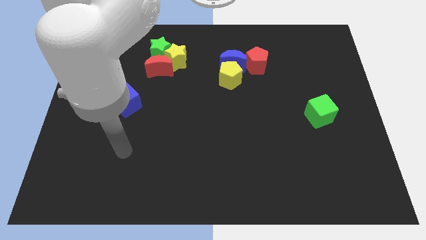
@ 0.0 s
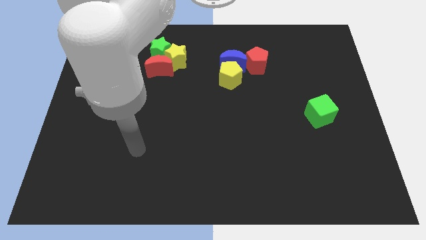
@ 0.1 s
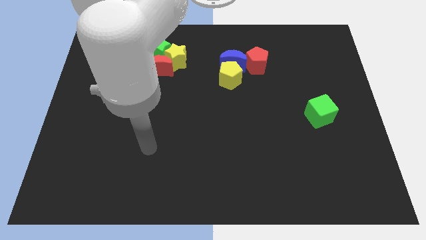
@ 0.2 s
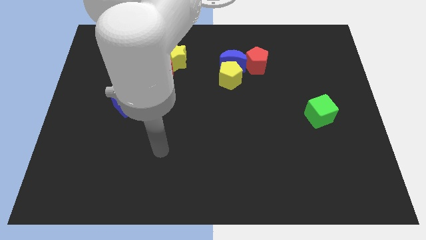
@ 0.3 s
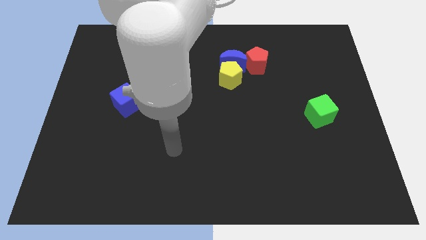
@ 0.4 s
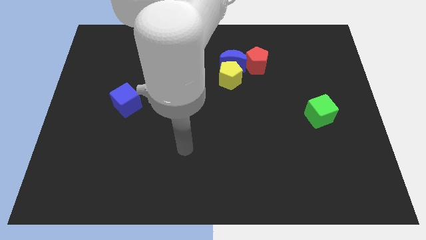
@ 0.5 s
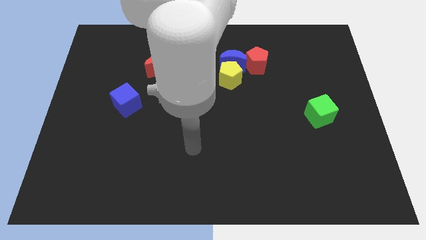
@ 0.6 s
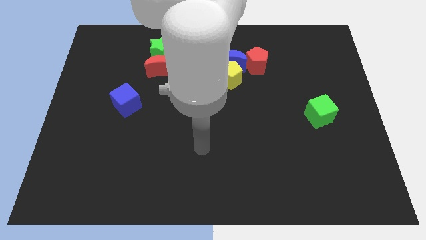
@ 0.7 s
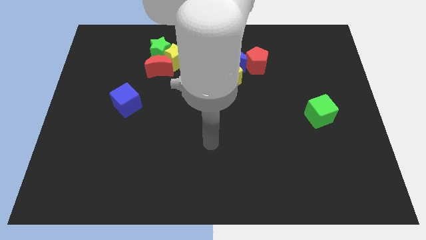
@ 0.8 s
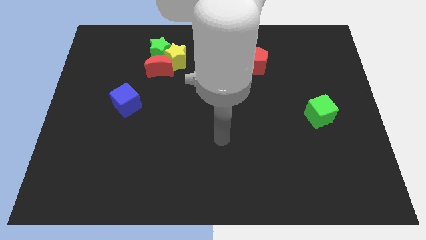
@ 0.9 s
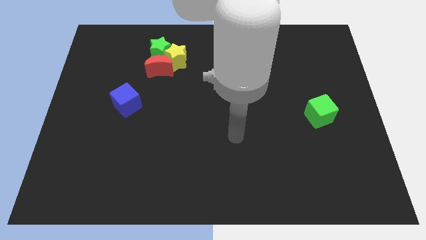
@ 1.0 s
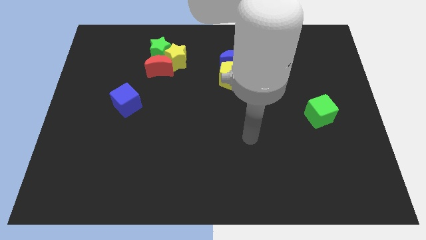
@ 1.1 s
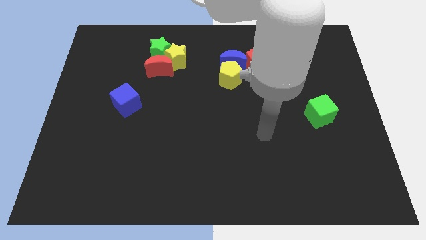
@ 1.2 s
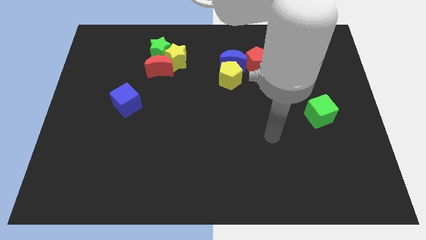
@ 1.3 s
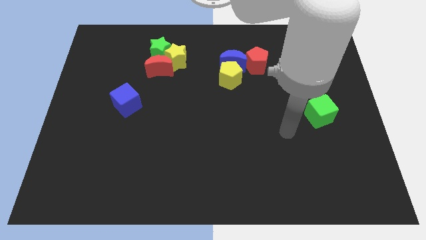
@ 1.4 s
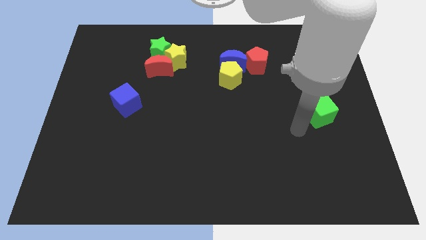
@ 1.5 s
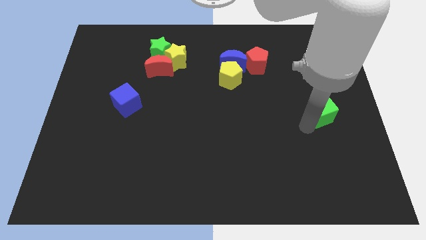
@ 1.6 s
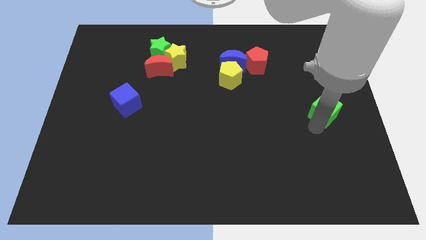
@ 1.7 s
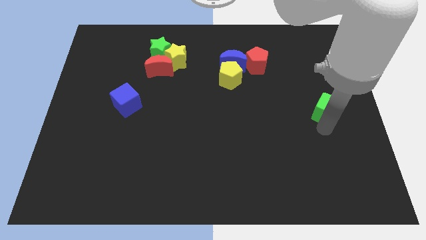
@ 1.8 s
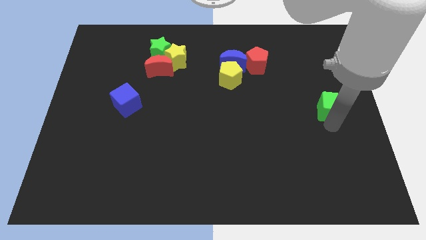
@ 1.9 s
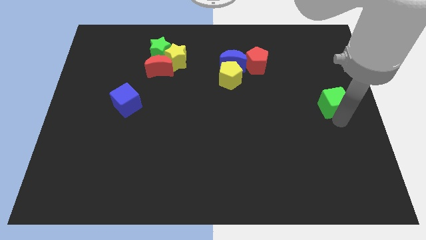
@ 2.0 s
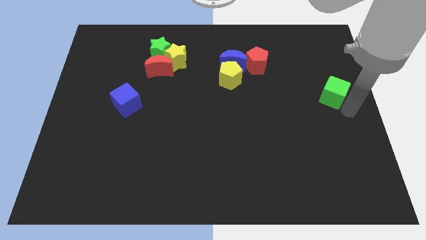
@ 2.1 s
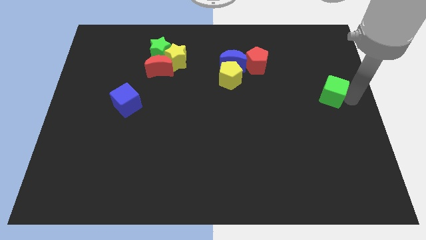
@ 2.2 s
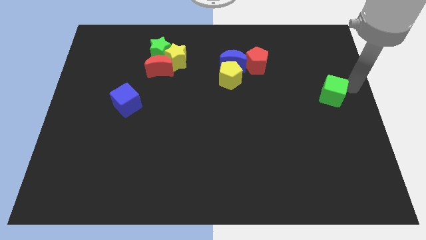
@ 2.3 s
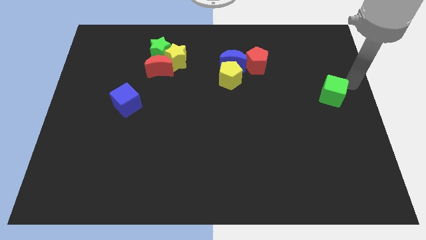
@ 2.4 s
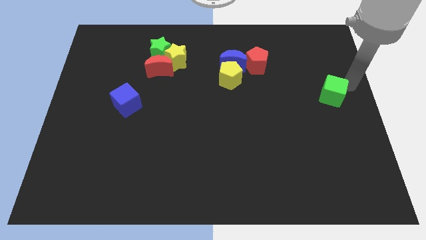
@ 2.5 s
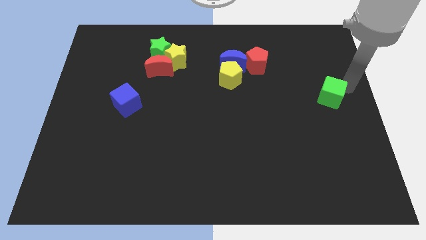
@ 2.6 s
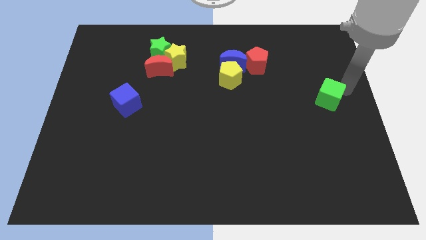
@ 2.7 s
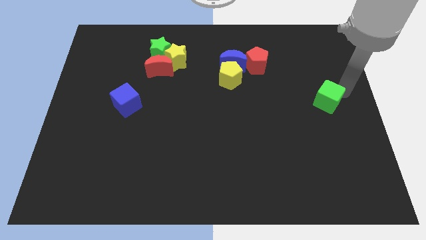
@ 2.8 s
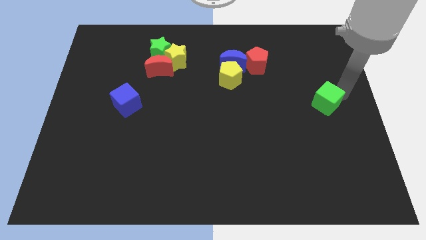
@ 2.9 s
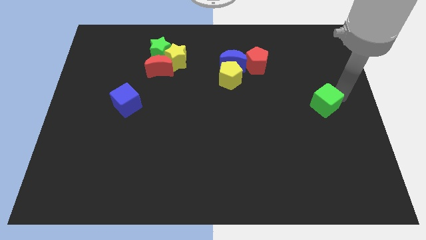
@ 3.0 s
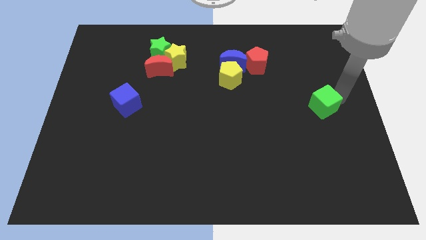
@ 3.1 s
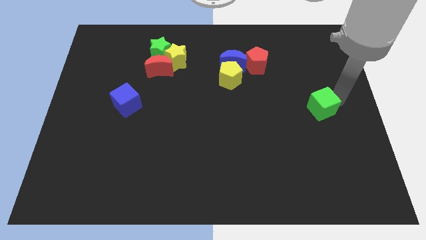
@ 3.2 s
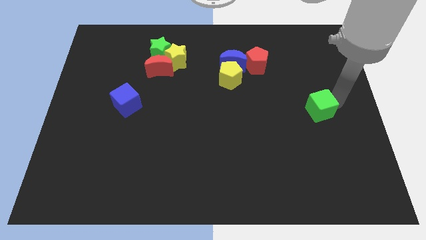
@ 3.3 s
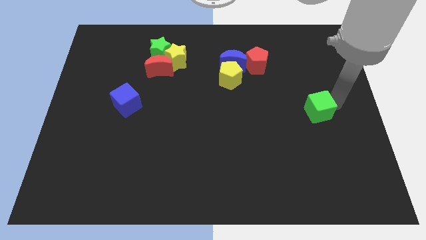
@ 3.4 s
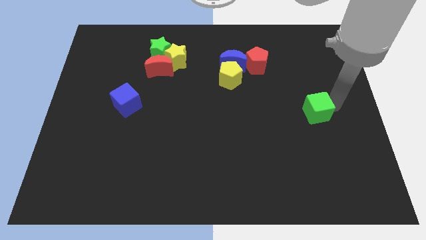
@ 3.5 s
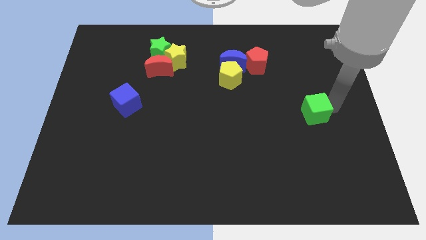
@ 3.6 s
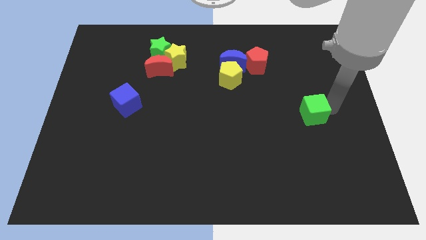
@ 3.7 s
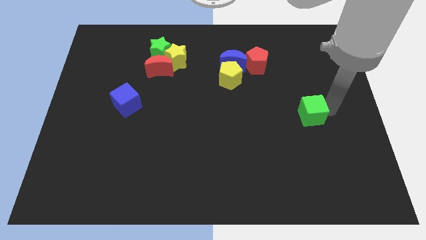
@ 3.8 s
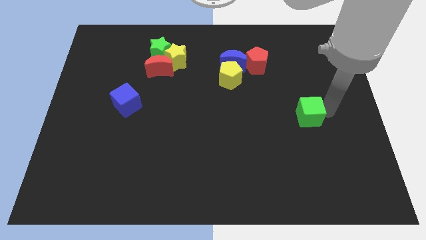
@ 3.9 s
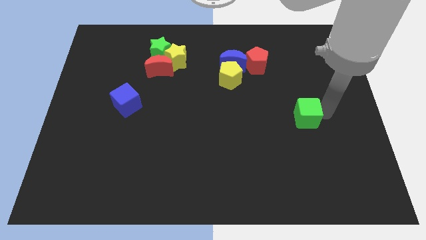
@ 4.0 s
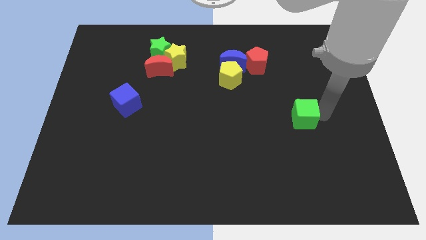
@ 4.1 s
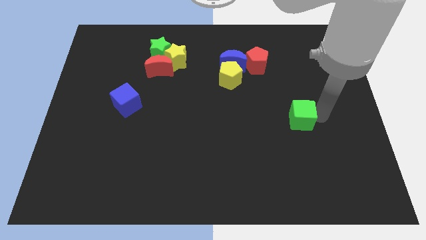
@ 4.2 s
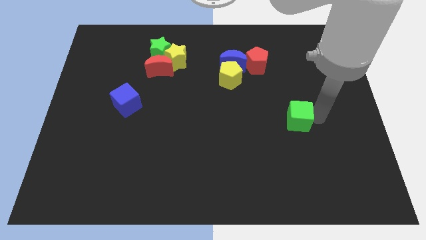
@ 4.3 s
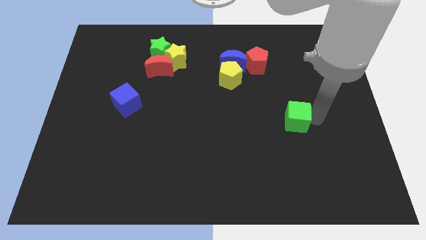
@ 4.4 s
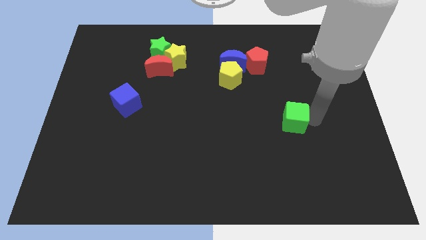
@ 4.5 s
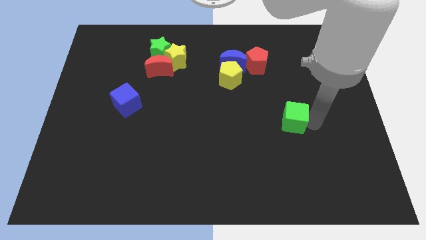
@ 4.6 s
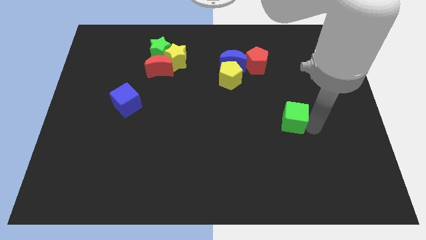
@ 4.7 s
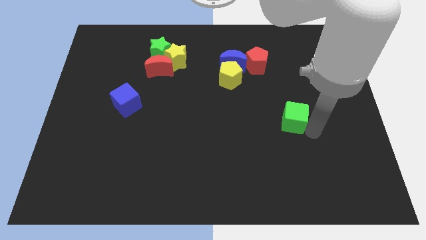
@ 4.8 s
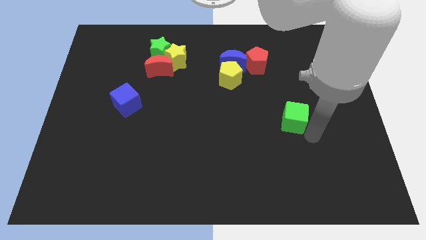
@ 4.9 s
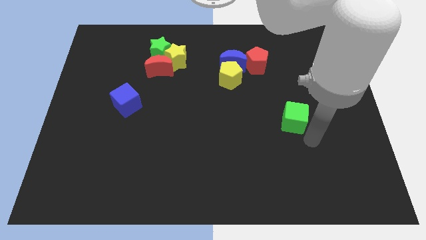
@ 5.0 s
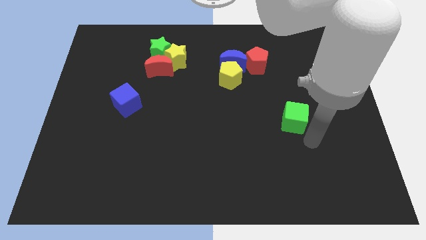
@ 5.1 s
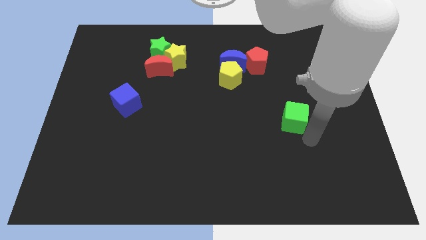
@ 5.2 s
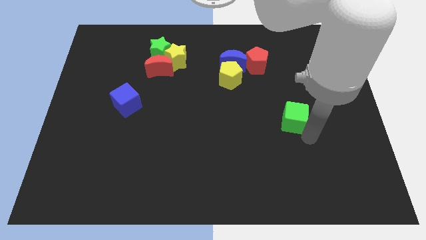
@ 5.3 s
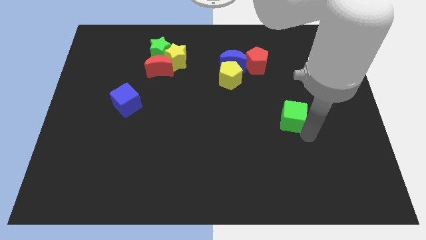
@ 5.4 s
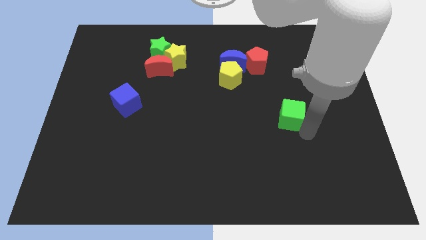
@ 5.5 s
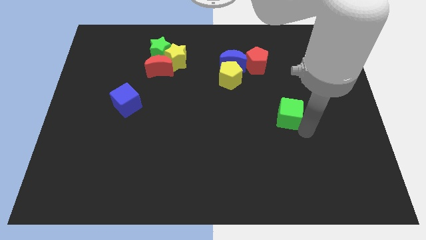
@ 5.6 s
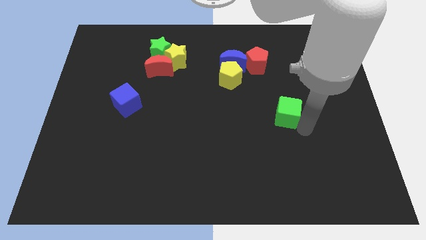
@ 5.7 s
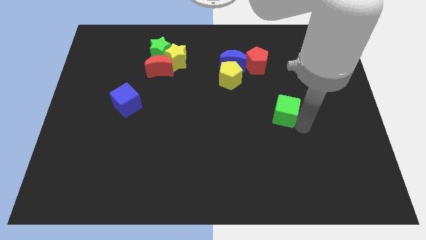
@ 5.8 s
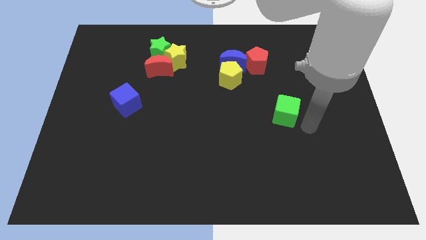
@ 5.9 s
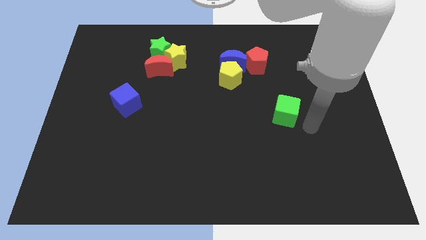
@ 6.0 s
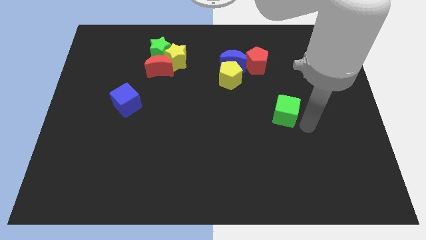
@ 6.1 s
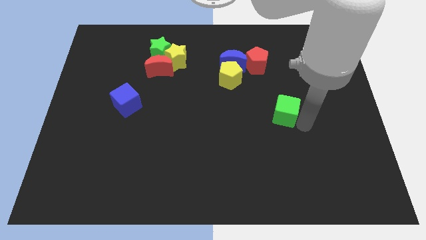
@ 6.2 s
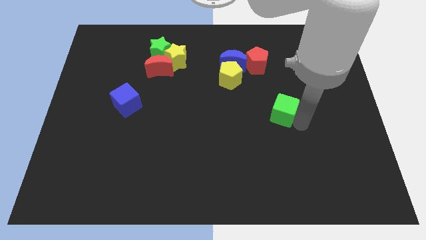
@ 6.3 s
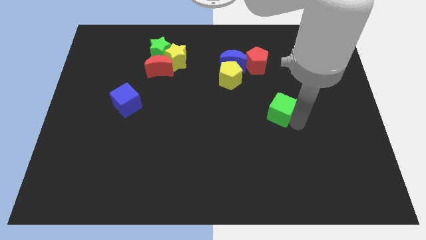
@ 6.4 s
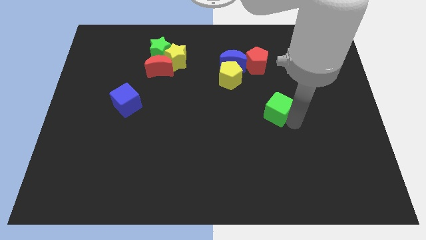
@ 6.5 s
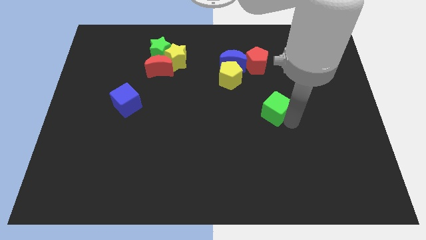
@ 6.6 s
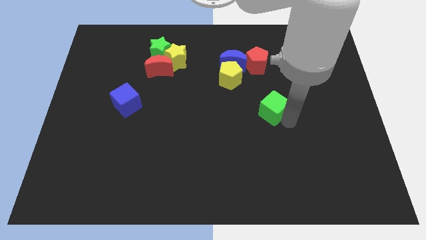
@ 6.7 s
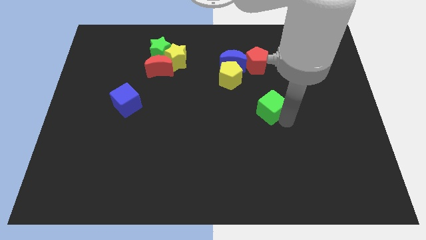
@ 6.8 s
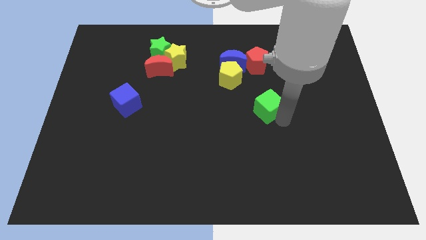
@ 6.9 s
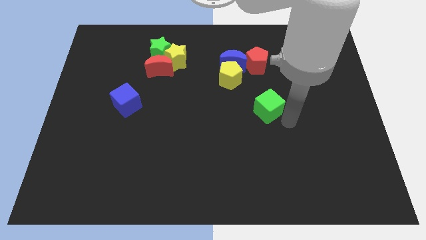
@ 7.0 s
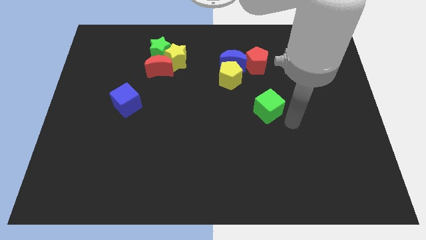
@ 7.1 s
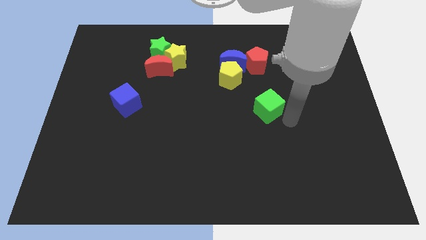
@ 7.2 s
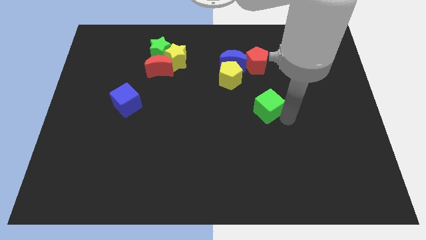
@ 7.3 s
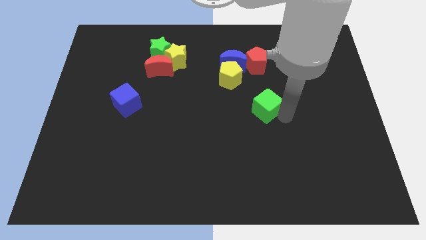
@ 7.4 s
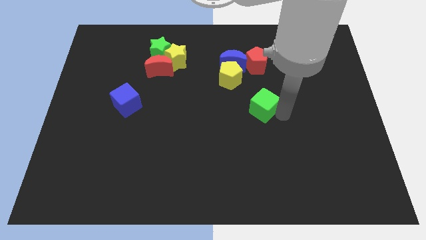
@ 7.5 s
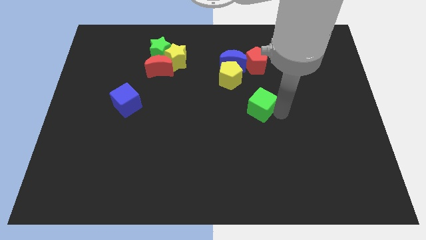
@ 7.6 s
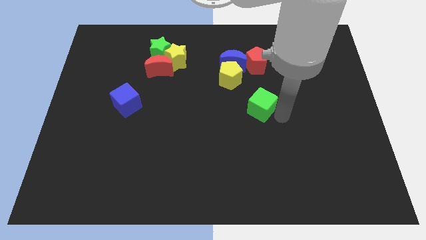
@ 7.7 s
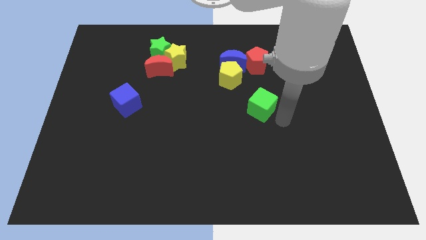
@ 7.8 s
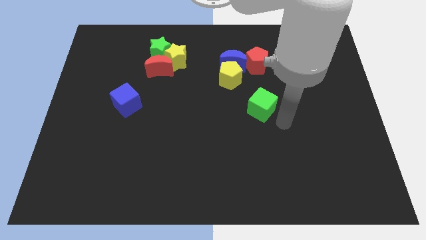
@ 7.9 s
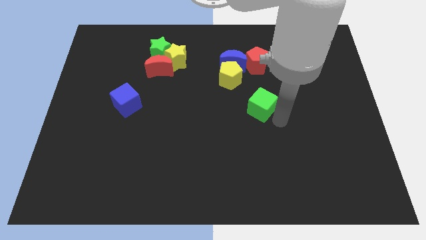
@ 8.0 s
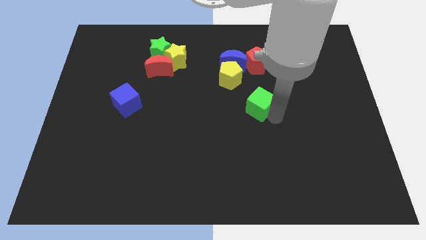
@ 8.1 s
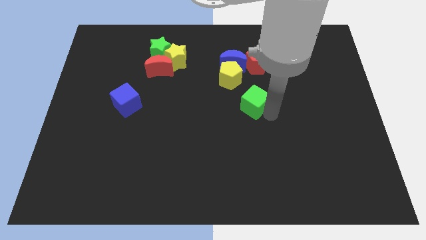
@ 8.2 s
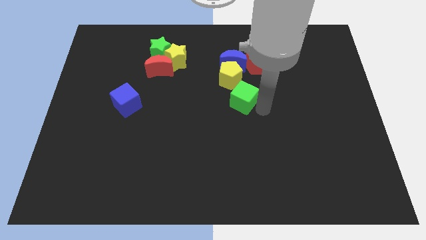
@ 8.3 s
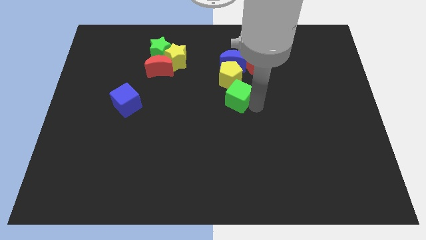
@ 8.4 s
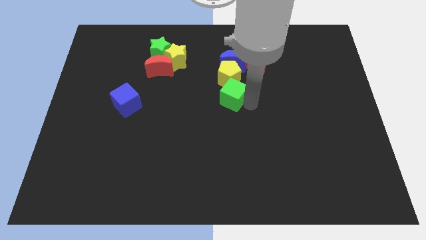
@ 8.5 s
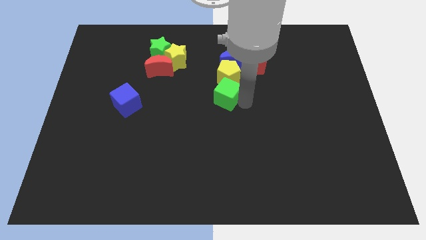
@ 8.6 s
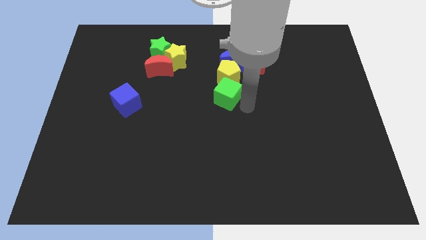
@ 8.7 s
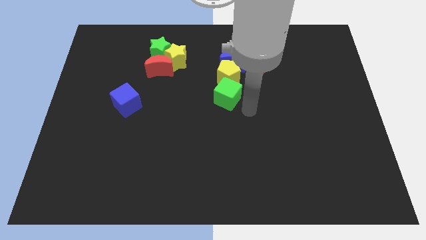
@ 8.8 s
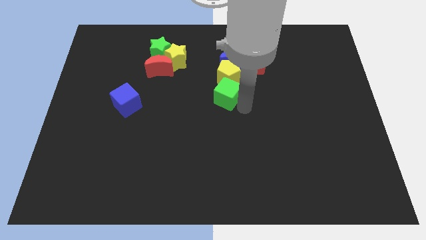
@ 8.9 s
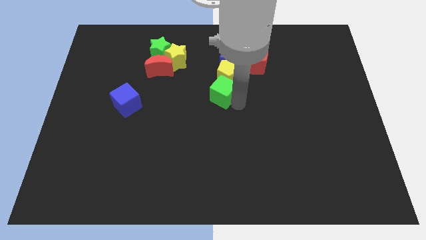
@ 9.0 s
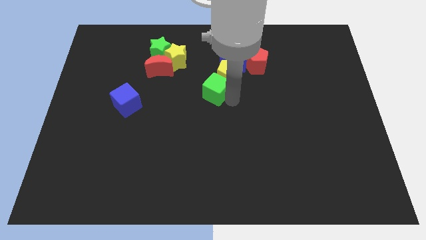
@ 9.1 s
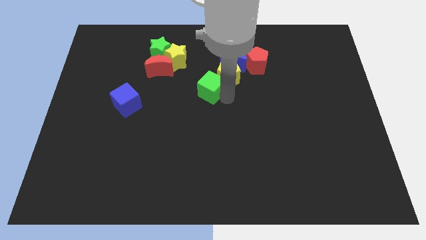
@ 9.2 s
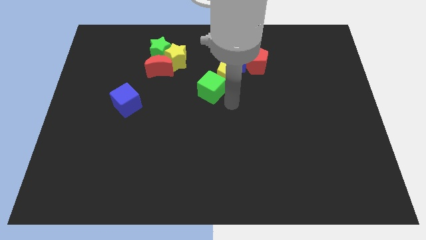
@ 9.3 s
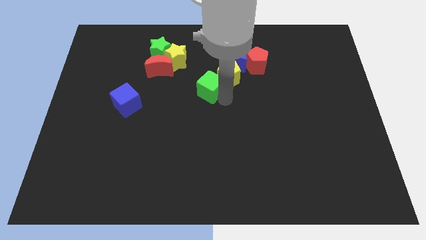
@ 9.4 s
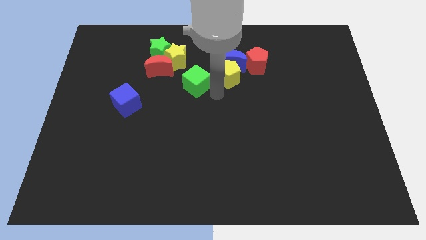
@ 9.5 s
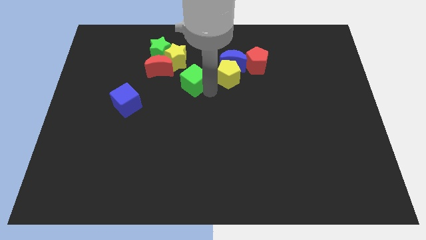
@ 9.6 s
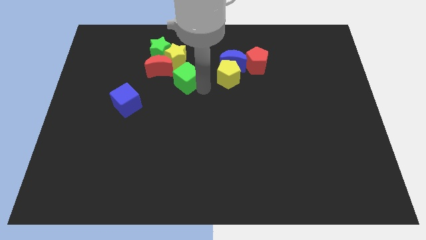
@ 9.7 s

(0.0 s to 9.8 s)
slide the green cube to the bottom right side of the green star
